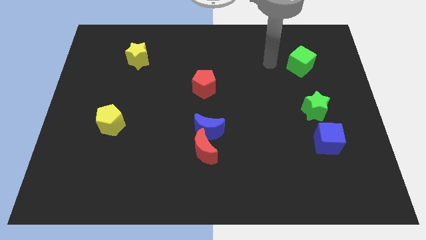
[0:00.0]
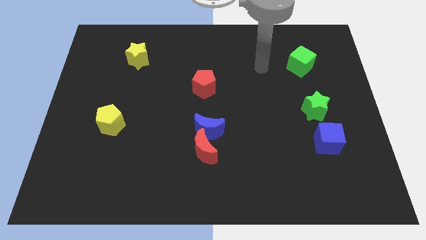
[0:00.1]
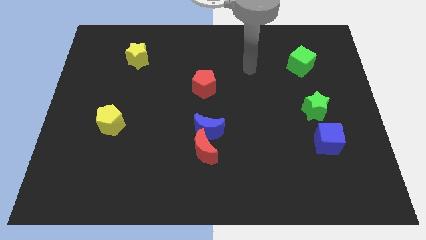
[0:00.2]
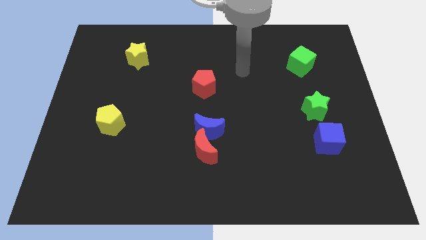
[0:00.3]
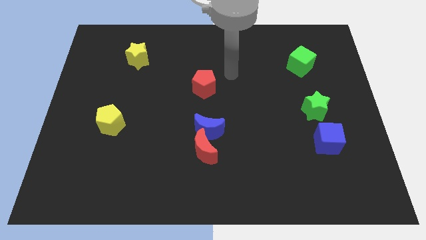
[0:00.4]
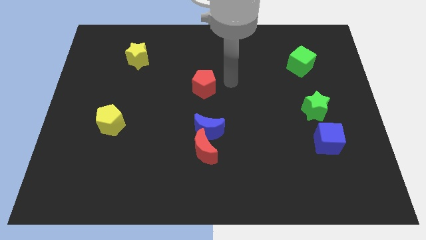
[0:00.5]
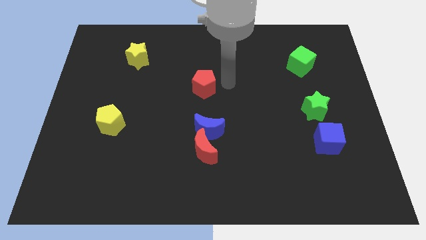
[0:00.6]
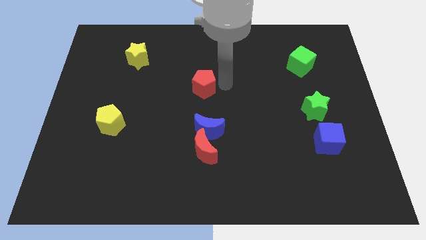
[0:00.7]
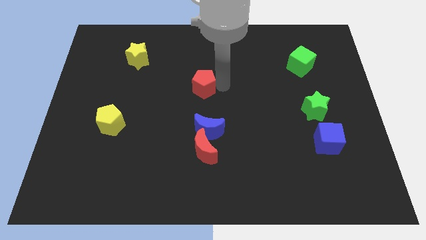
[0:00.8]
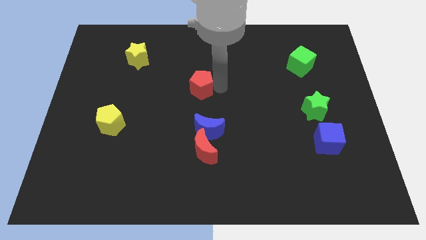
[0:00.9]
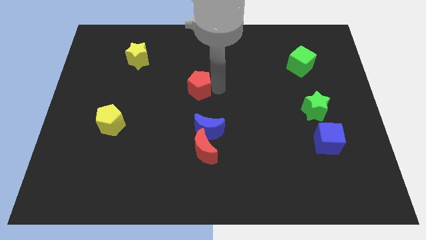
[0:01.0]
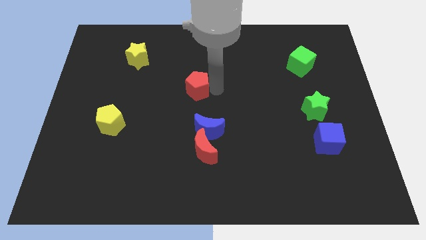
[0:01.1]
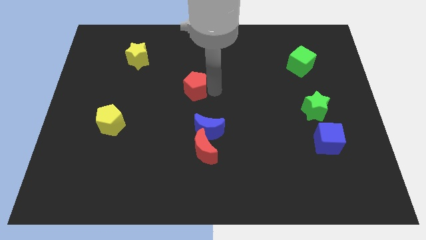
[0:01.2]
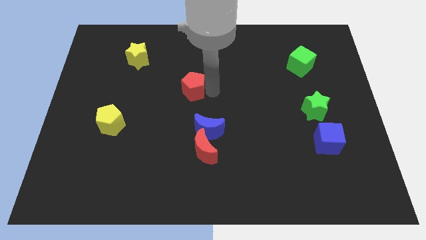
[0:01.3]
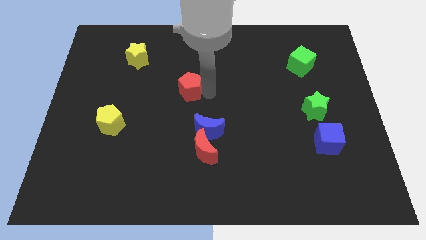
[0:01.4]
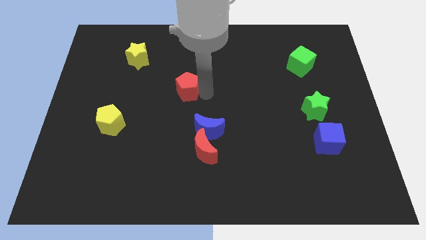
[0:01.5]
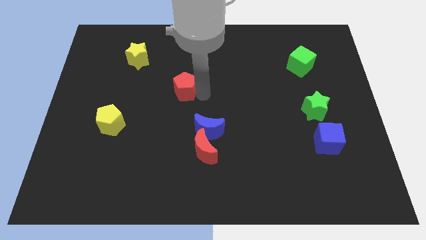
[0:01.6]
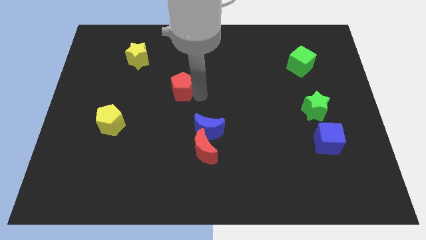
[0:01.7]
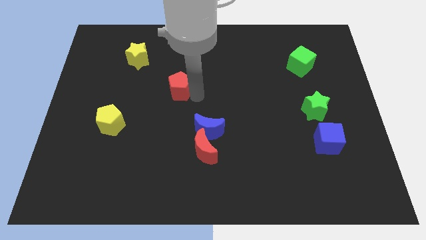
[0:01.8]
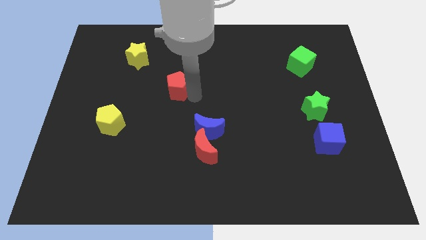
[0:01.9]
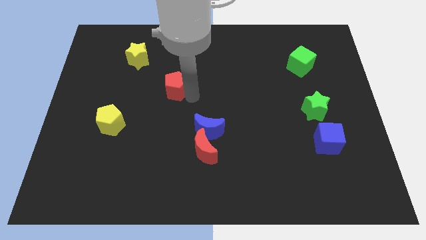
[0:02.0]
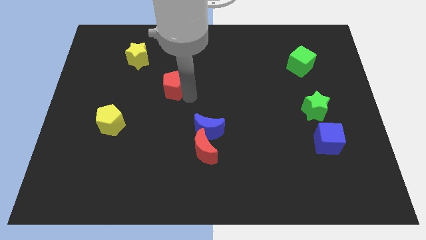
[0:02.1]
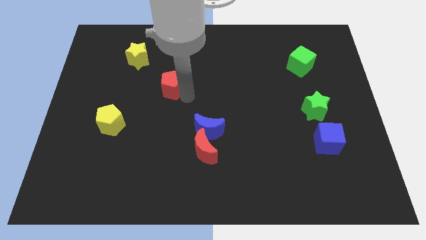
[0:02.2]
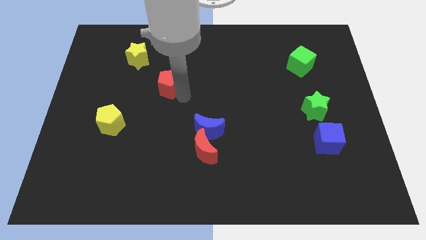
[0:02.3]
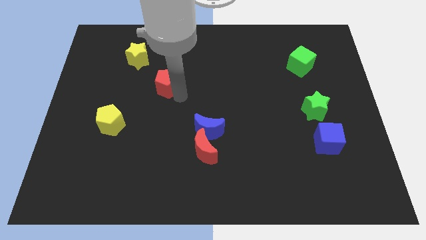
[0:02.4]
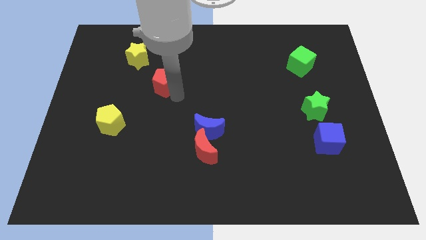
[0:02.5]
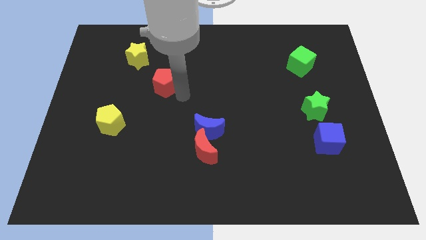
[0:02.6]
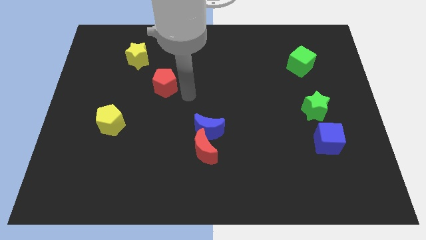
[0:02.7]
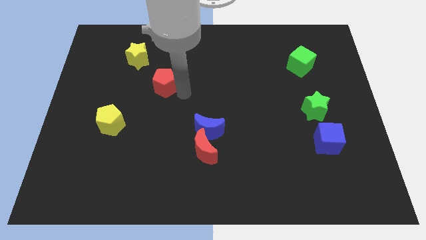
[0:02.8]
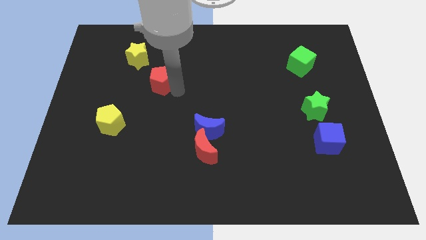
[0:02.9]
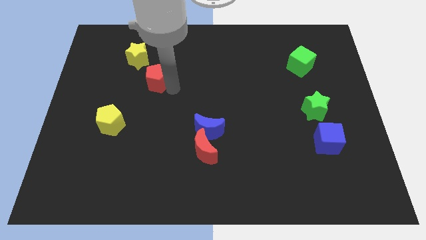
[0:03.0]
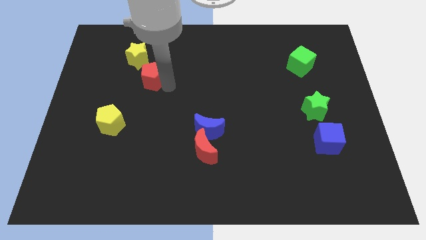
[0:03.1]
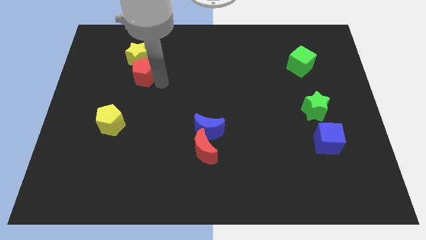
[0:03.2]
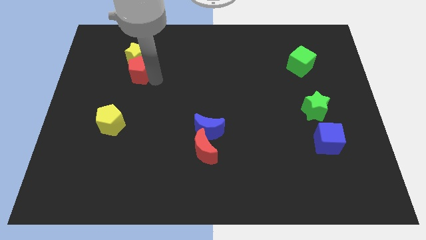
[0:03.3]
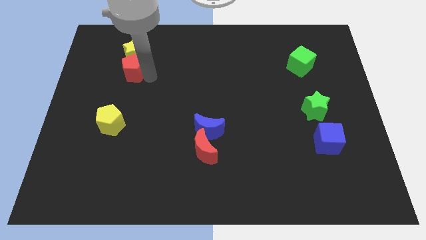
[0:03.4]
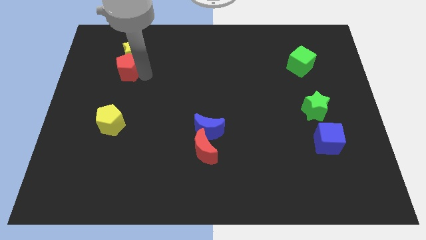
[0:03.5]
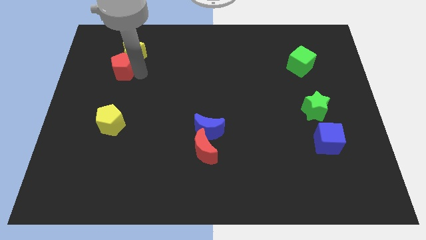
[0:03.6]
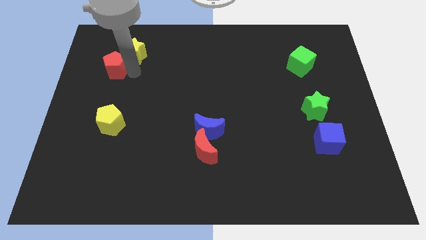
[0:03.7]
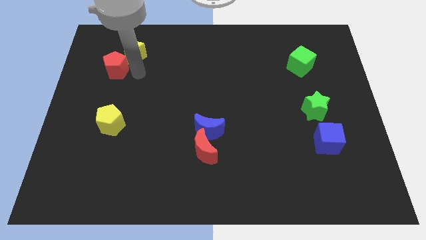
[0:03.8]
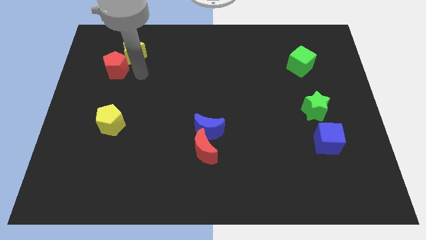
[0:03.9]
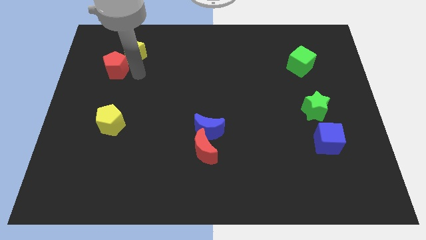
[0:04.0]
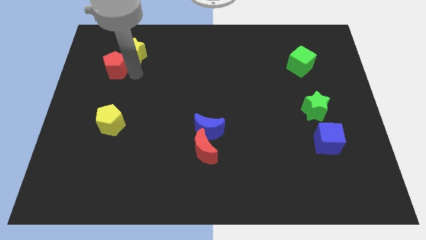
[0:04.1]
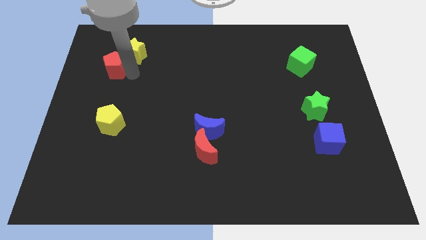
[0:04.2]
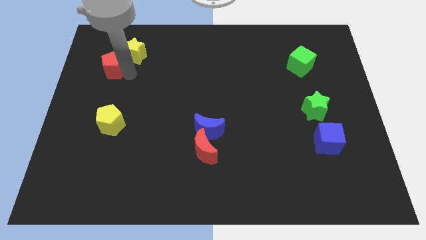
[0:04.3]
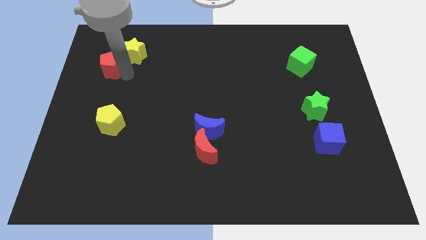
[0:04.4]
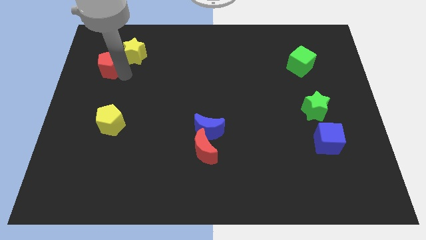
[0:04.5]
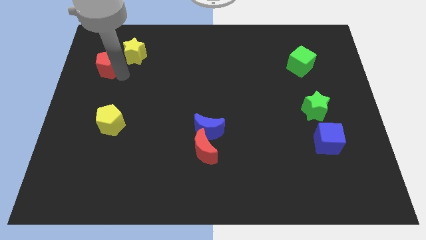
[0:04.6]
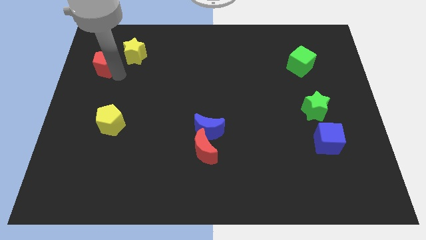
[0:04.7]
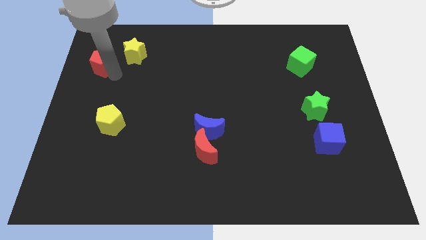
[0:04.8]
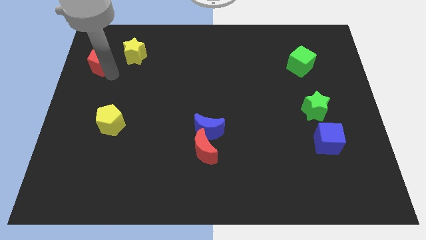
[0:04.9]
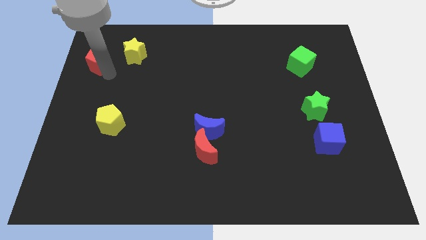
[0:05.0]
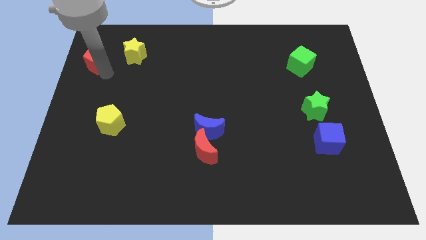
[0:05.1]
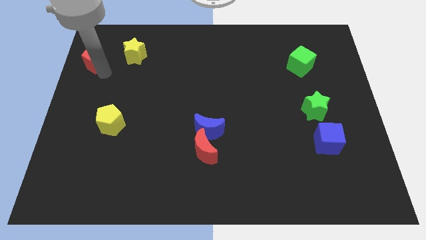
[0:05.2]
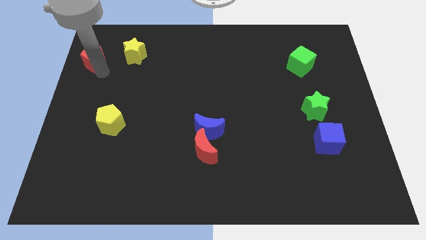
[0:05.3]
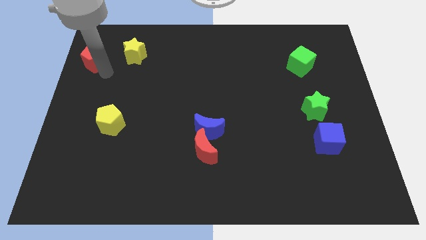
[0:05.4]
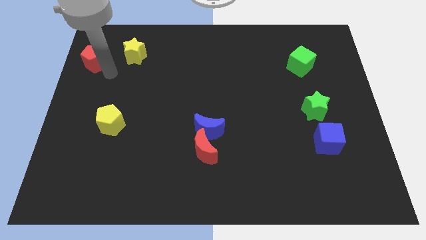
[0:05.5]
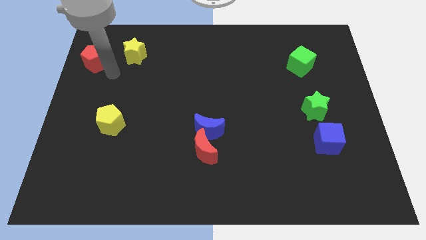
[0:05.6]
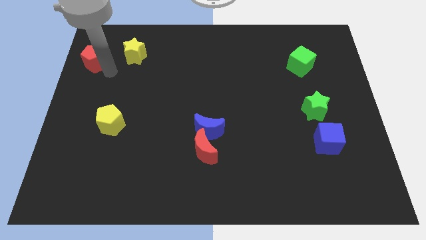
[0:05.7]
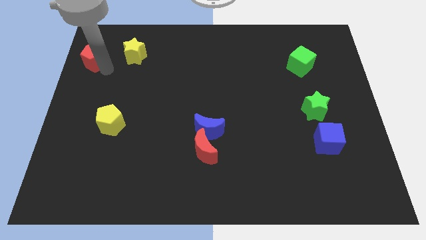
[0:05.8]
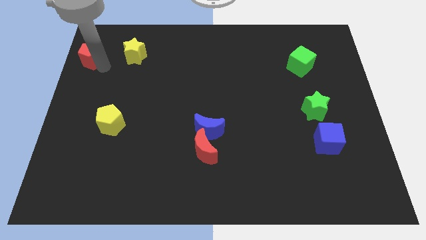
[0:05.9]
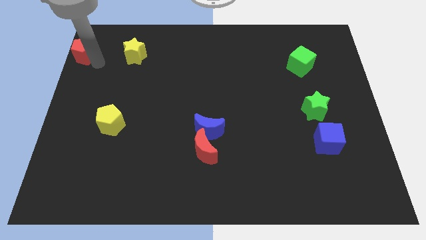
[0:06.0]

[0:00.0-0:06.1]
slide the red pentagon to the top left

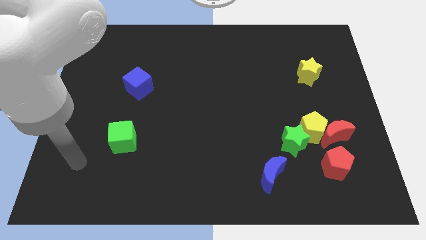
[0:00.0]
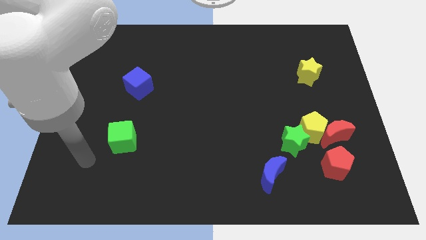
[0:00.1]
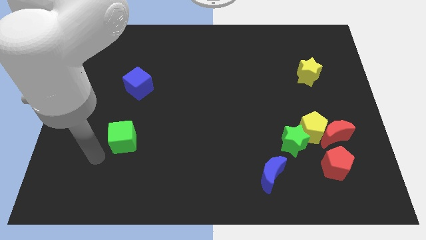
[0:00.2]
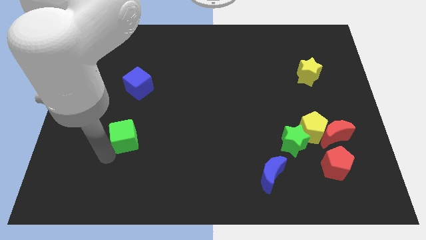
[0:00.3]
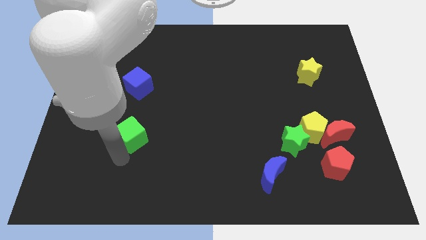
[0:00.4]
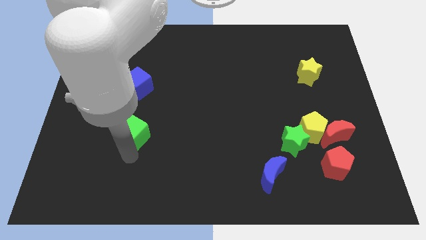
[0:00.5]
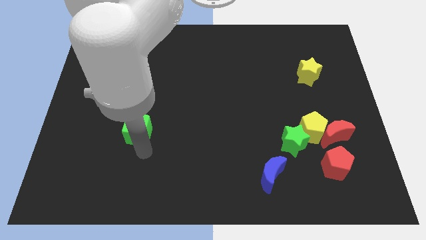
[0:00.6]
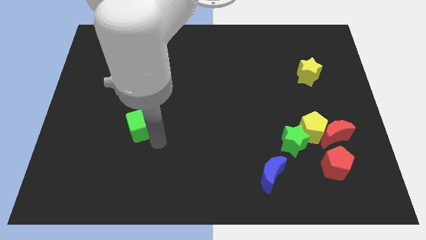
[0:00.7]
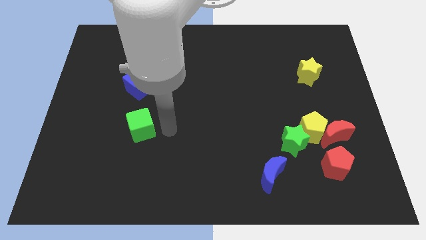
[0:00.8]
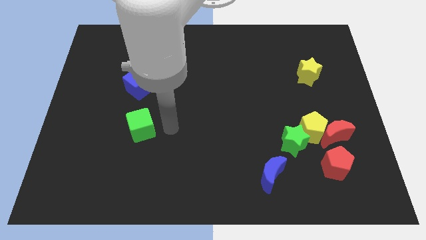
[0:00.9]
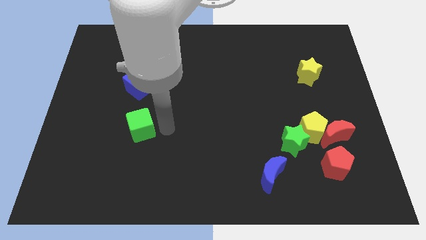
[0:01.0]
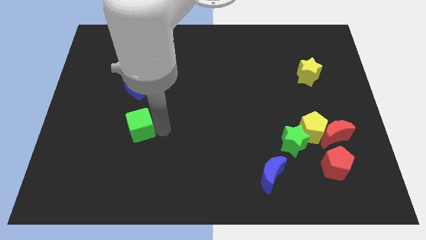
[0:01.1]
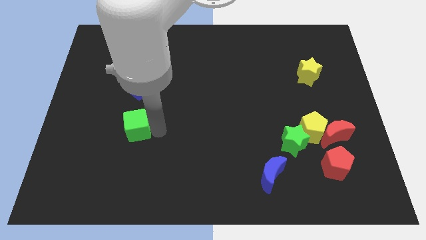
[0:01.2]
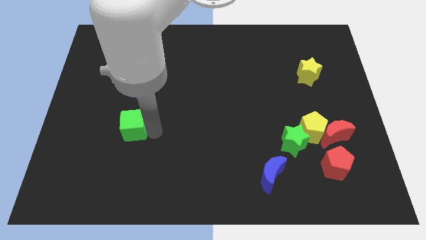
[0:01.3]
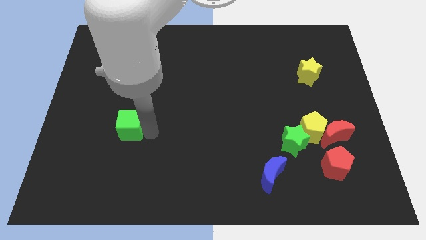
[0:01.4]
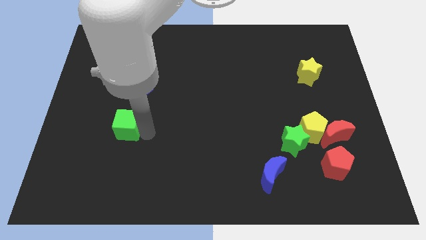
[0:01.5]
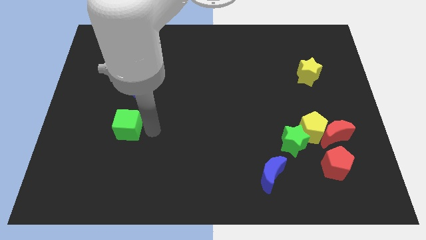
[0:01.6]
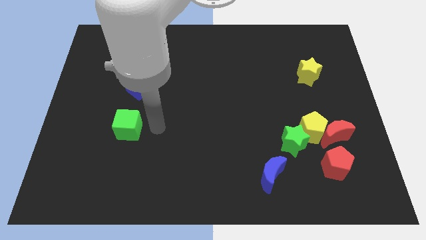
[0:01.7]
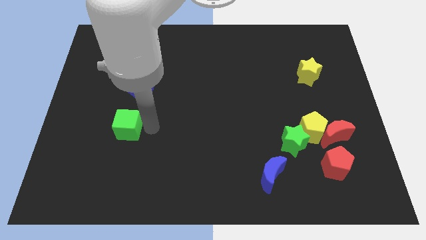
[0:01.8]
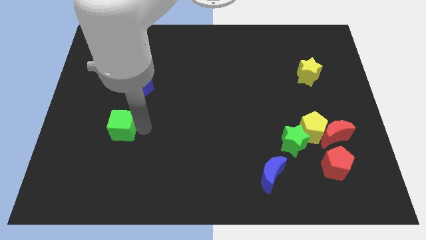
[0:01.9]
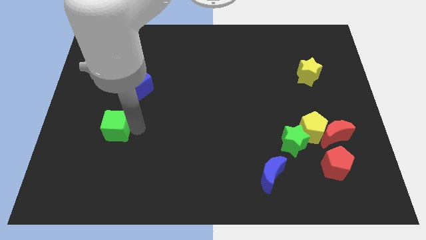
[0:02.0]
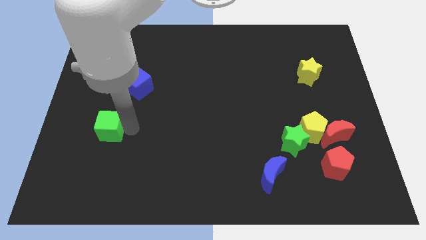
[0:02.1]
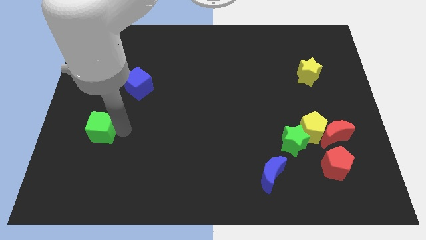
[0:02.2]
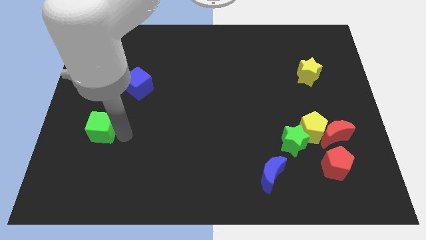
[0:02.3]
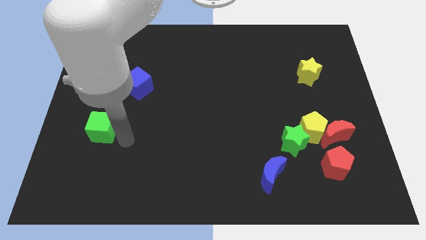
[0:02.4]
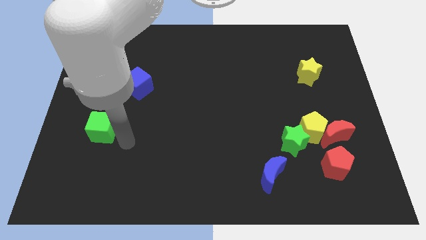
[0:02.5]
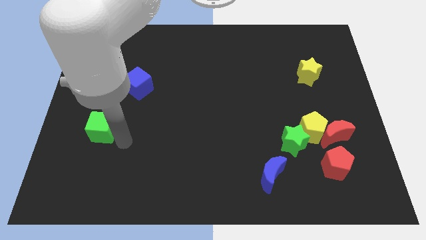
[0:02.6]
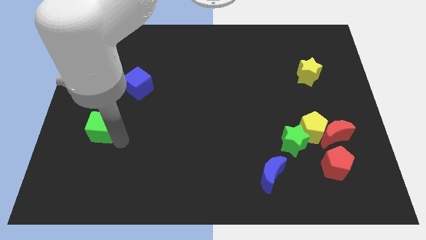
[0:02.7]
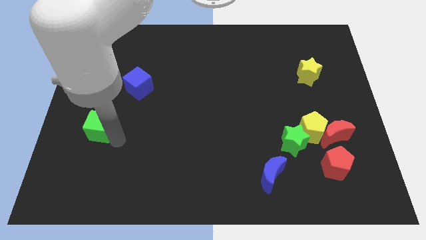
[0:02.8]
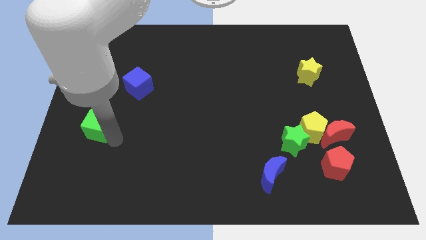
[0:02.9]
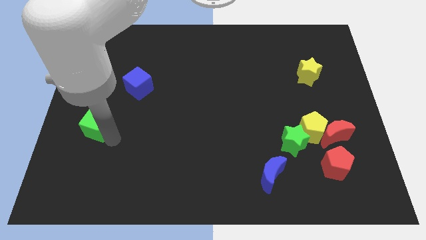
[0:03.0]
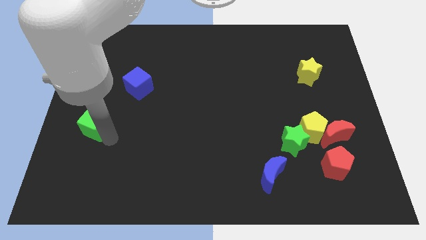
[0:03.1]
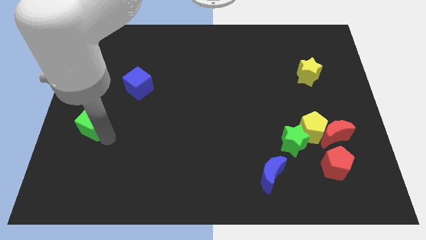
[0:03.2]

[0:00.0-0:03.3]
push the green cube to the left side
